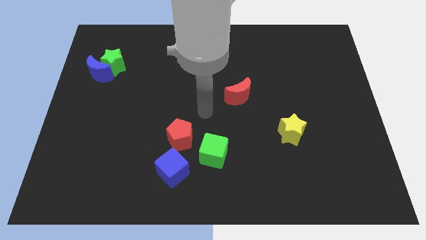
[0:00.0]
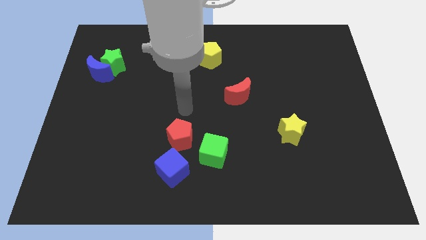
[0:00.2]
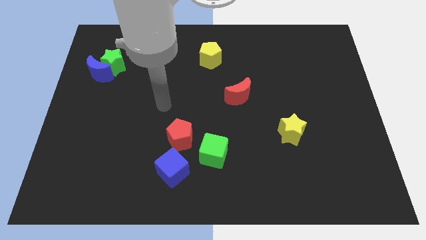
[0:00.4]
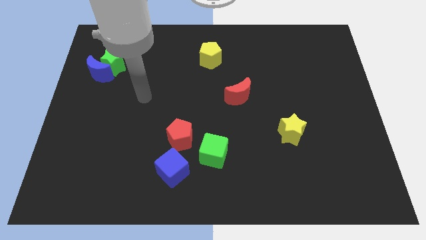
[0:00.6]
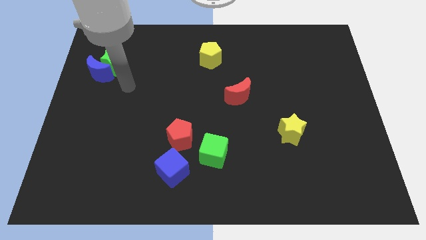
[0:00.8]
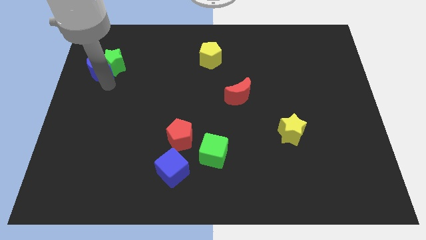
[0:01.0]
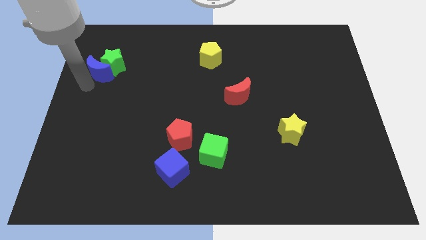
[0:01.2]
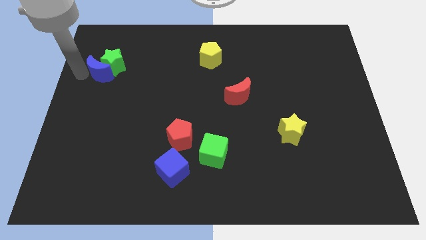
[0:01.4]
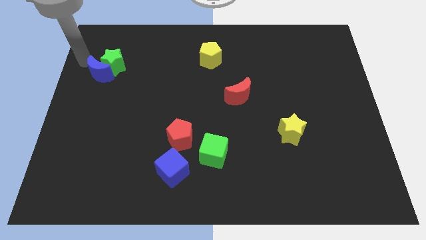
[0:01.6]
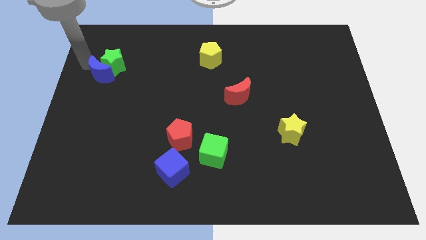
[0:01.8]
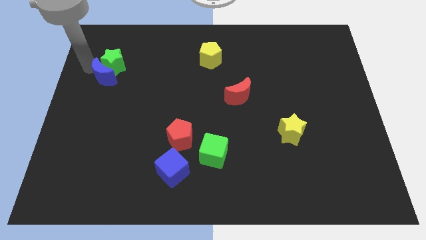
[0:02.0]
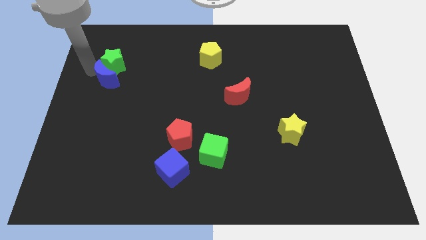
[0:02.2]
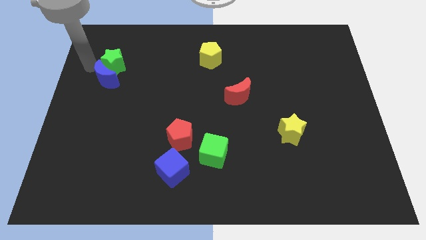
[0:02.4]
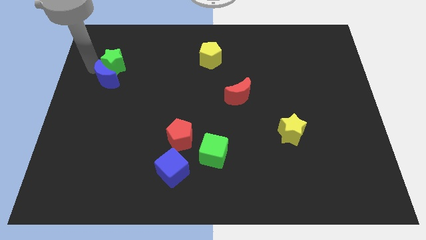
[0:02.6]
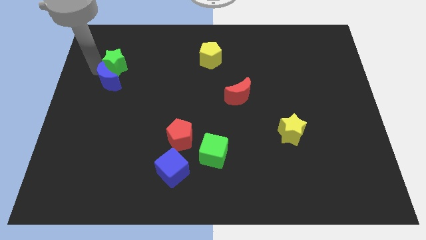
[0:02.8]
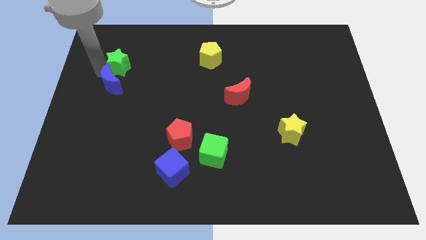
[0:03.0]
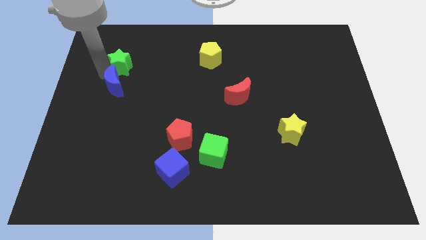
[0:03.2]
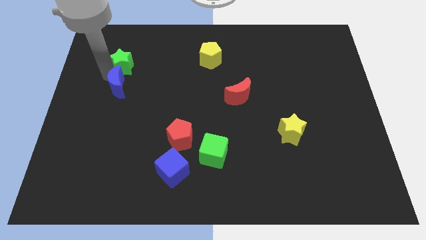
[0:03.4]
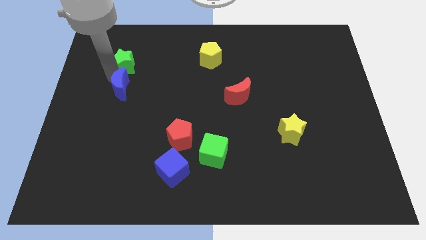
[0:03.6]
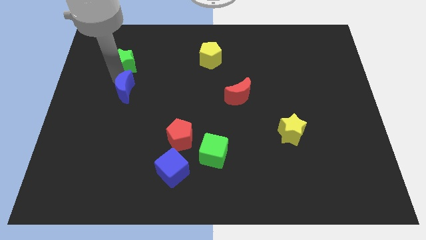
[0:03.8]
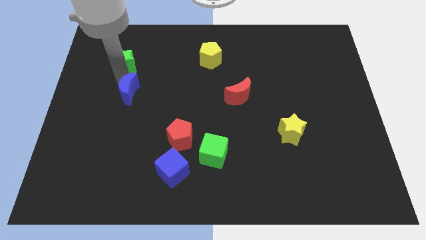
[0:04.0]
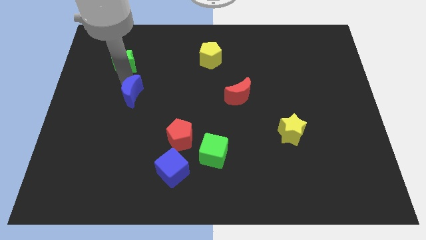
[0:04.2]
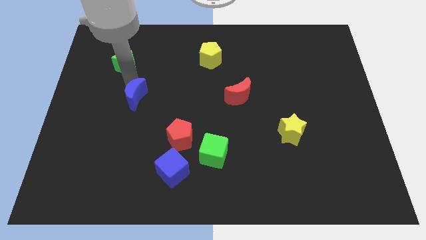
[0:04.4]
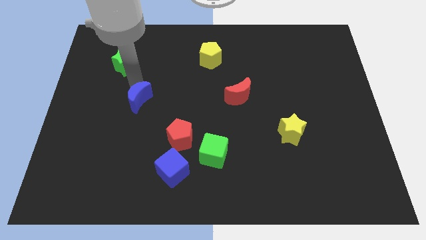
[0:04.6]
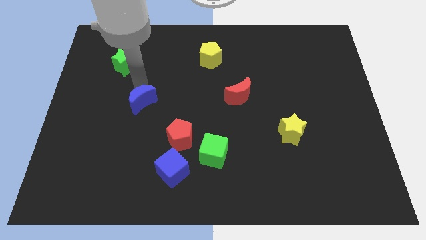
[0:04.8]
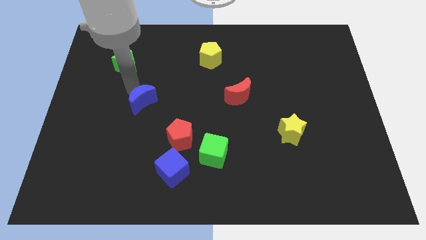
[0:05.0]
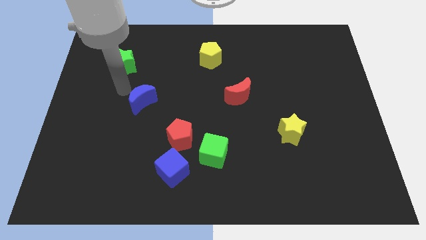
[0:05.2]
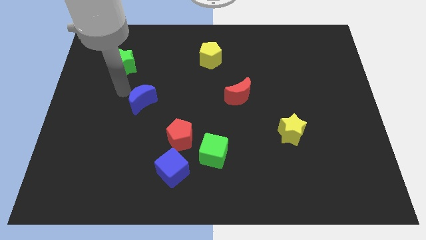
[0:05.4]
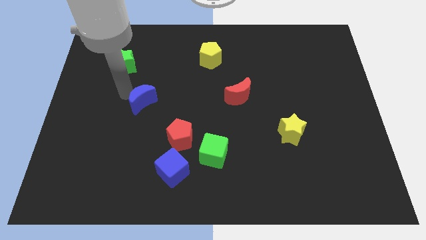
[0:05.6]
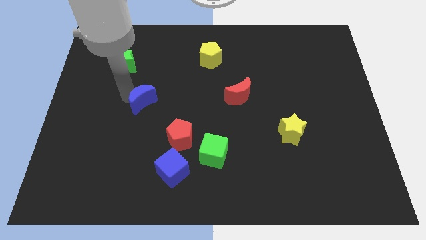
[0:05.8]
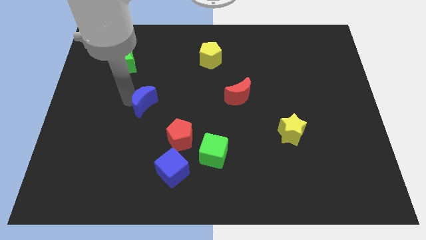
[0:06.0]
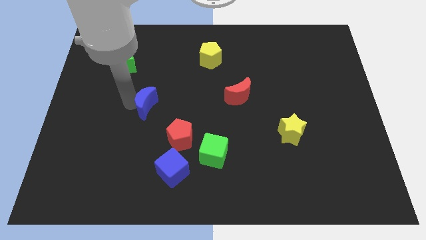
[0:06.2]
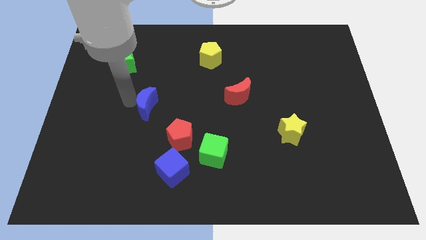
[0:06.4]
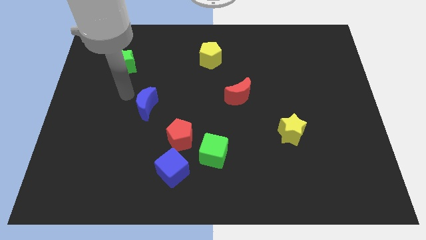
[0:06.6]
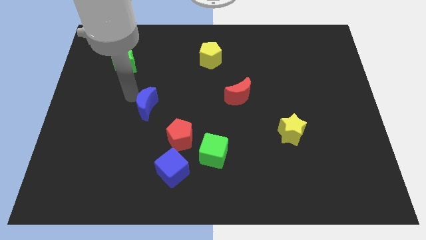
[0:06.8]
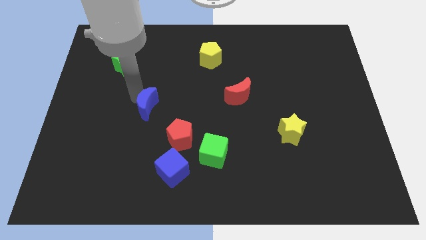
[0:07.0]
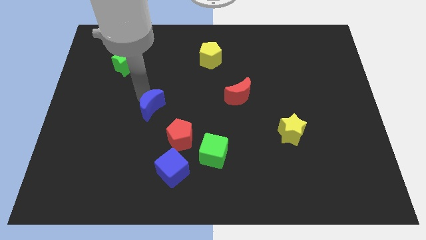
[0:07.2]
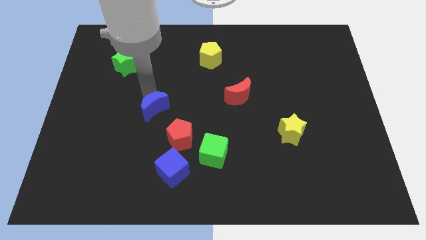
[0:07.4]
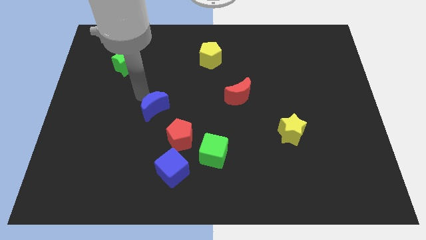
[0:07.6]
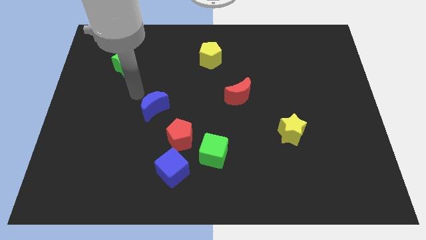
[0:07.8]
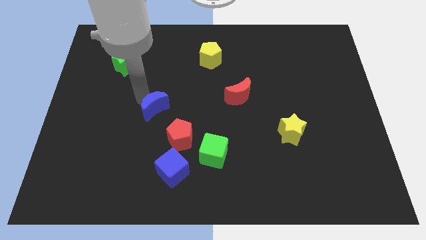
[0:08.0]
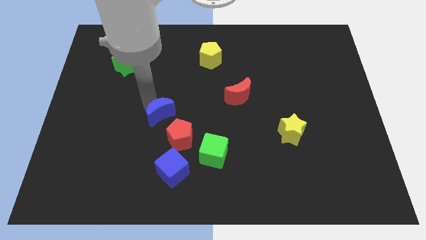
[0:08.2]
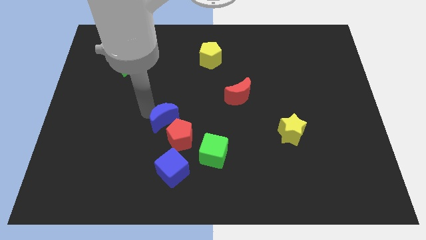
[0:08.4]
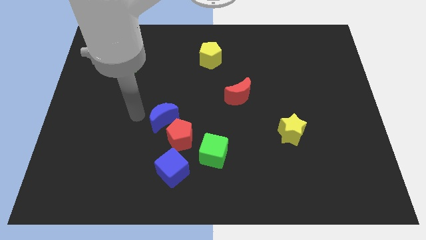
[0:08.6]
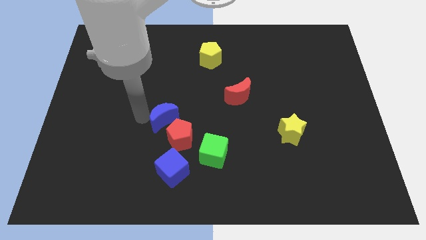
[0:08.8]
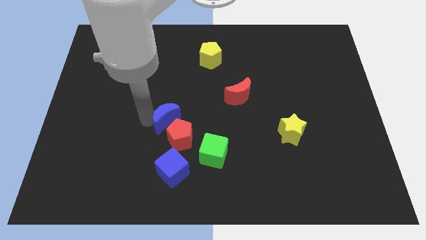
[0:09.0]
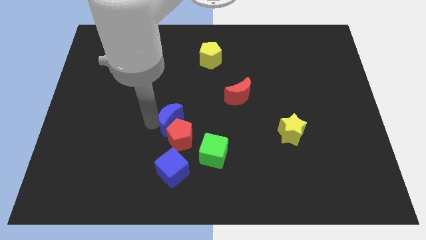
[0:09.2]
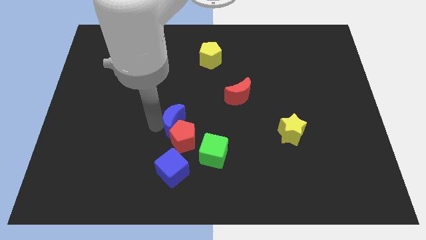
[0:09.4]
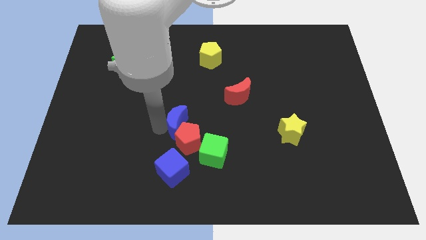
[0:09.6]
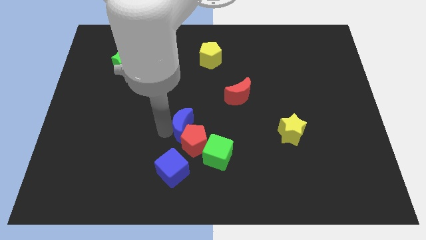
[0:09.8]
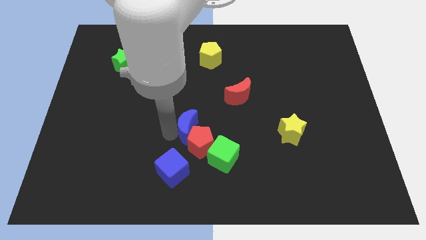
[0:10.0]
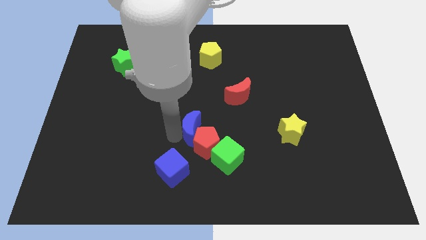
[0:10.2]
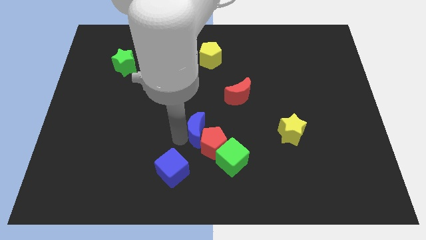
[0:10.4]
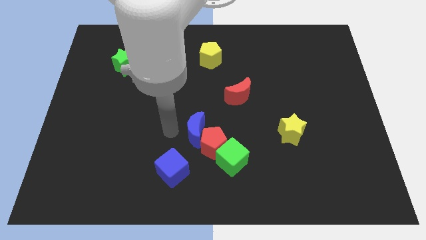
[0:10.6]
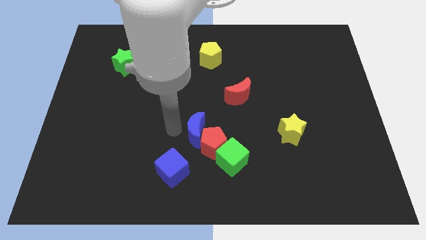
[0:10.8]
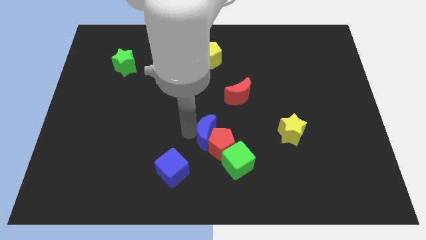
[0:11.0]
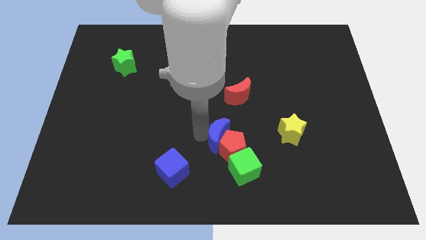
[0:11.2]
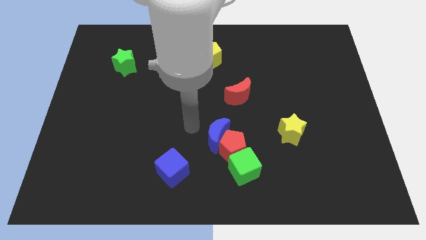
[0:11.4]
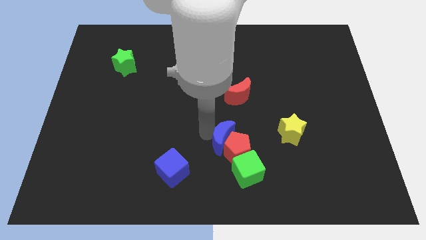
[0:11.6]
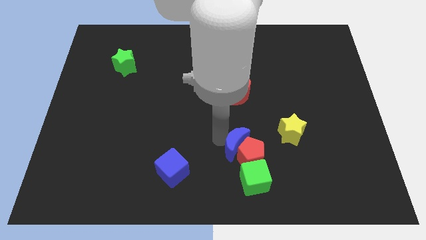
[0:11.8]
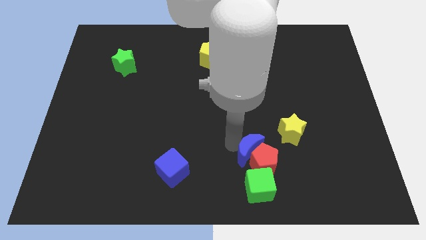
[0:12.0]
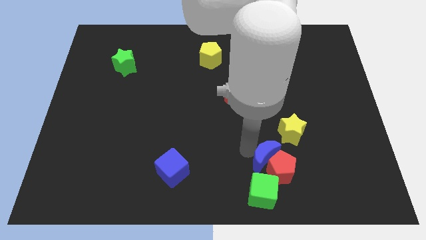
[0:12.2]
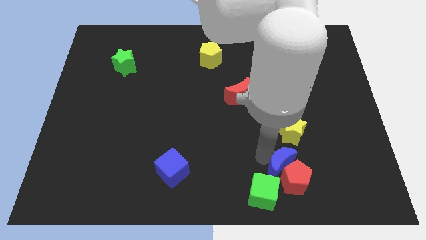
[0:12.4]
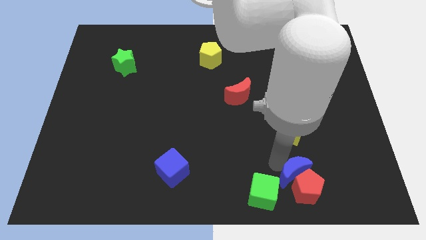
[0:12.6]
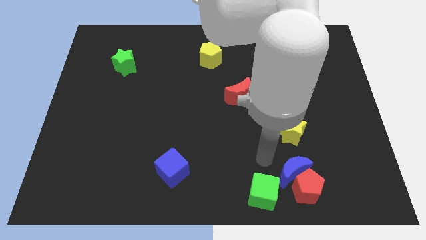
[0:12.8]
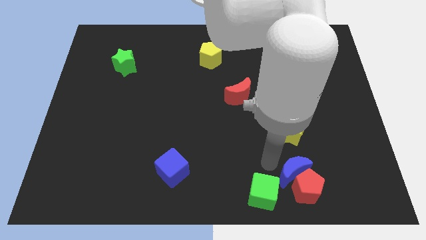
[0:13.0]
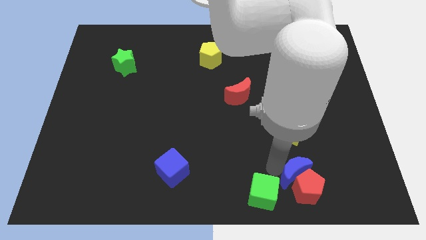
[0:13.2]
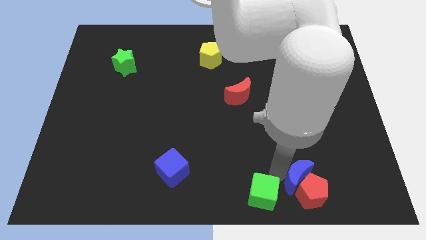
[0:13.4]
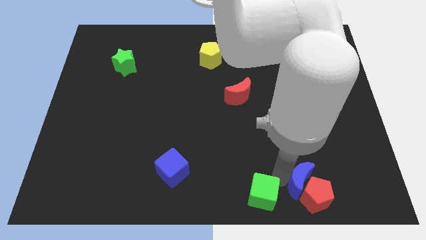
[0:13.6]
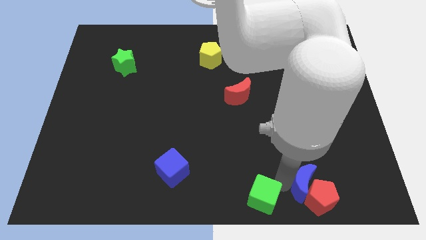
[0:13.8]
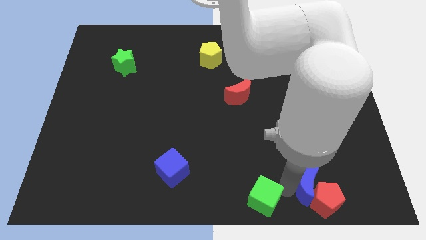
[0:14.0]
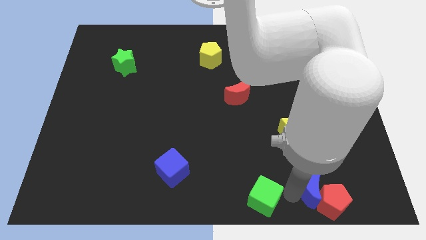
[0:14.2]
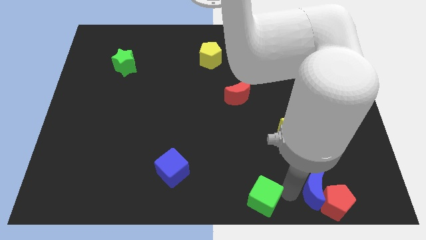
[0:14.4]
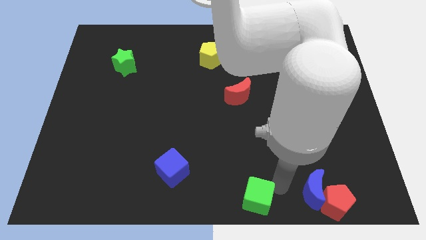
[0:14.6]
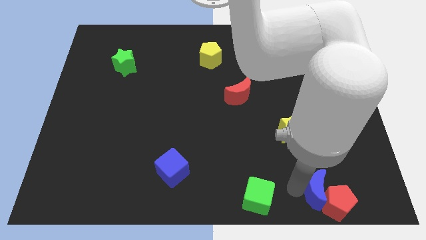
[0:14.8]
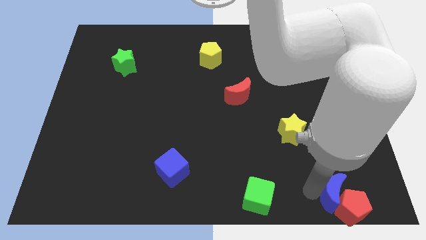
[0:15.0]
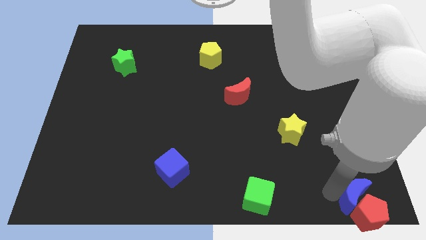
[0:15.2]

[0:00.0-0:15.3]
put the blue moon to the bottom right corner
